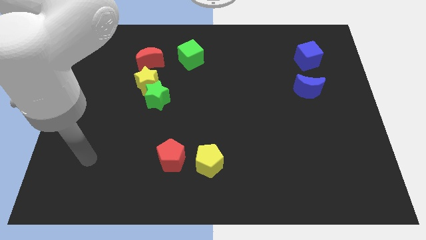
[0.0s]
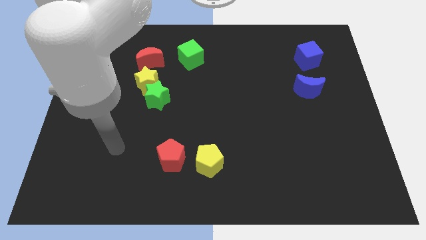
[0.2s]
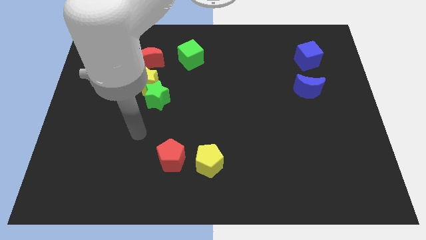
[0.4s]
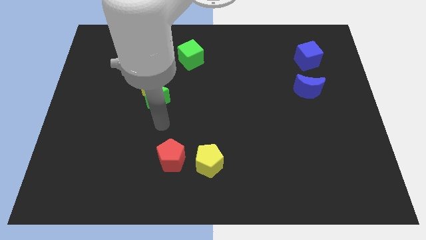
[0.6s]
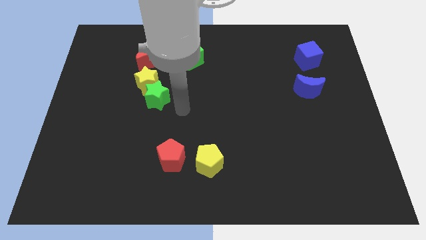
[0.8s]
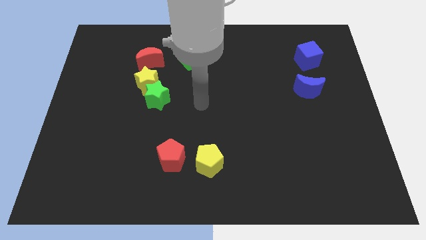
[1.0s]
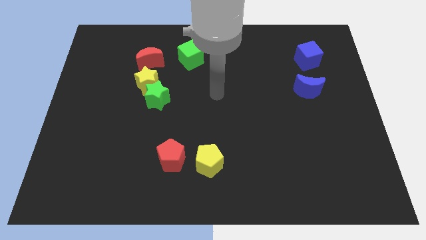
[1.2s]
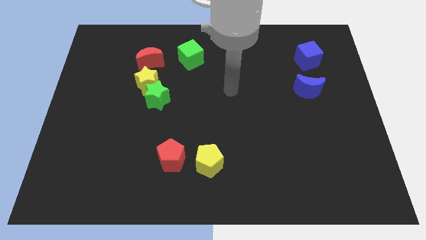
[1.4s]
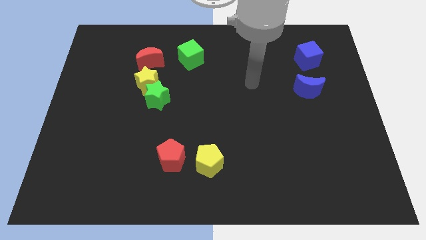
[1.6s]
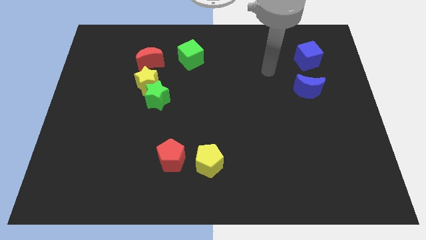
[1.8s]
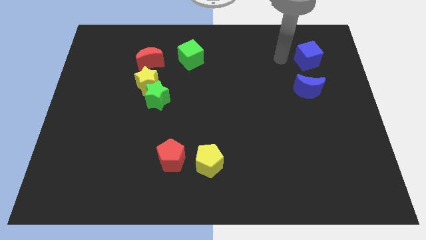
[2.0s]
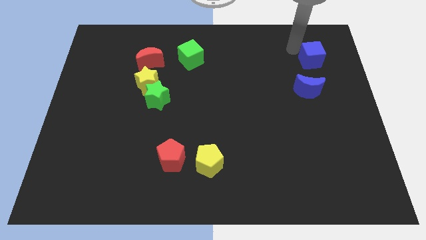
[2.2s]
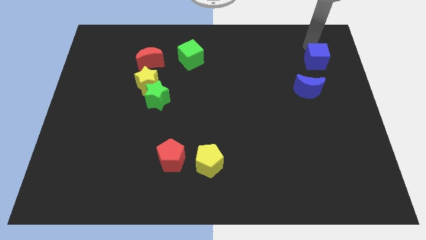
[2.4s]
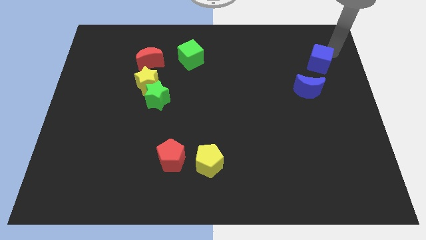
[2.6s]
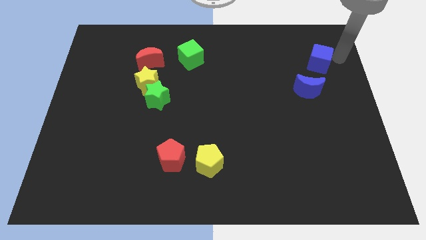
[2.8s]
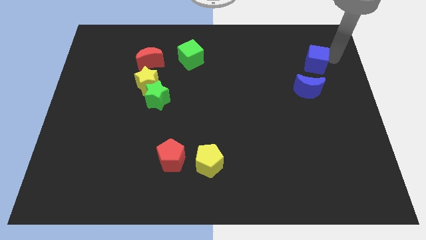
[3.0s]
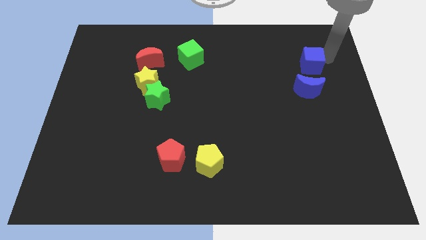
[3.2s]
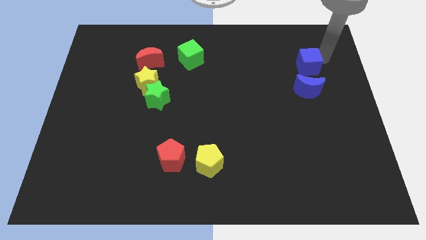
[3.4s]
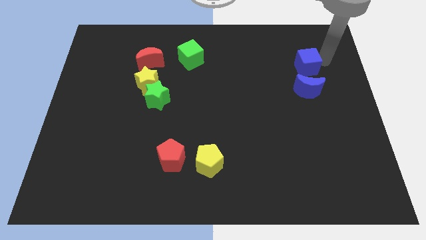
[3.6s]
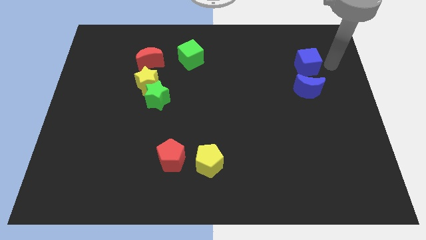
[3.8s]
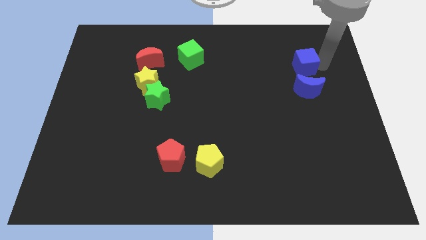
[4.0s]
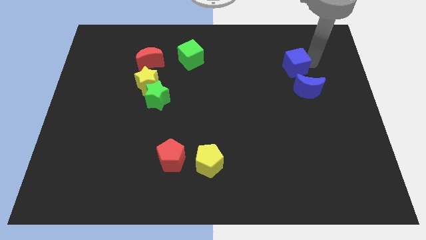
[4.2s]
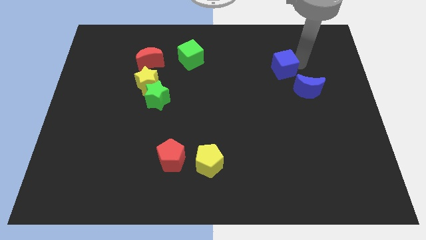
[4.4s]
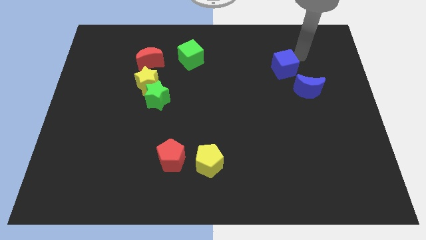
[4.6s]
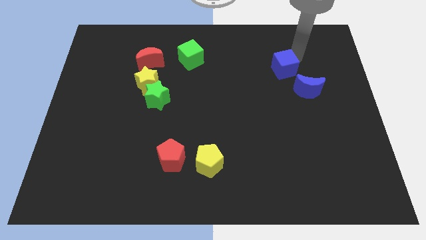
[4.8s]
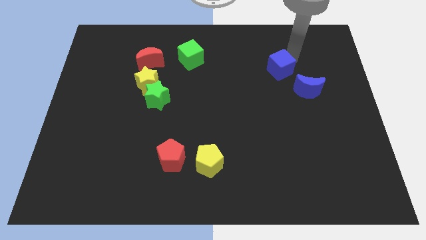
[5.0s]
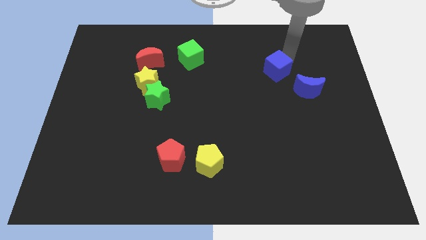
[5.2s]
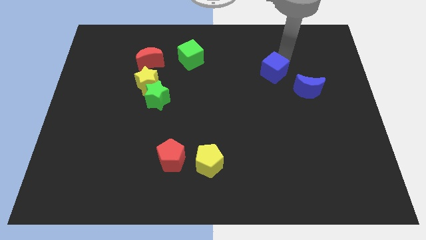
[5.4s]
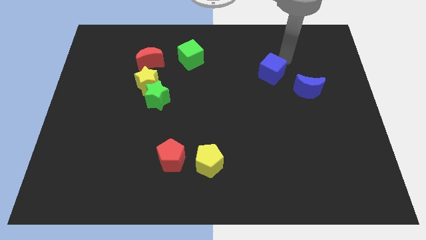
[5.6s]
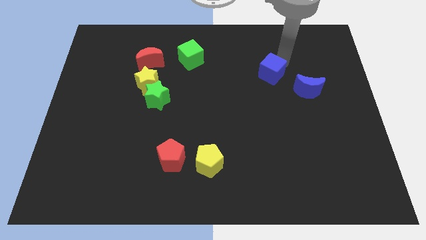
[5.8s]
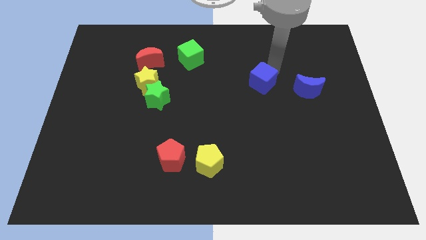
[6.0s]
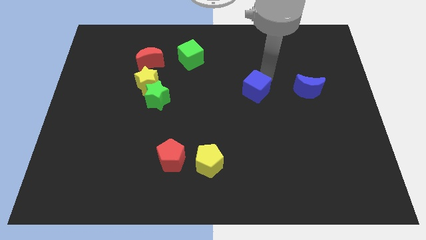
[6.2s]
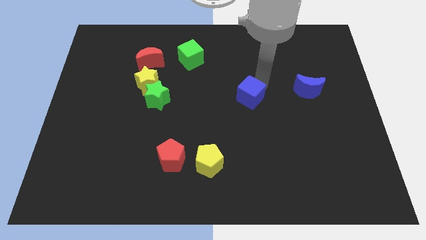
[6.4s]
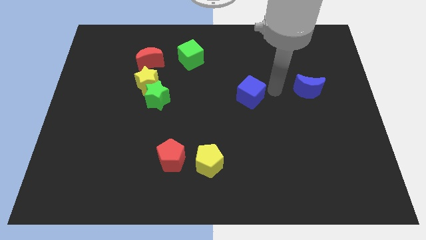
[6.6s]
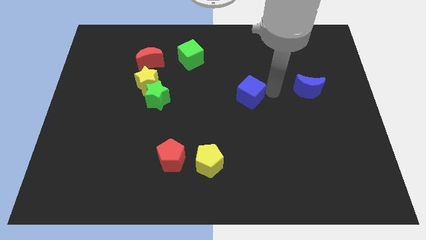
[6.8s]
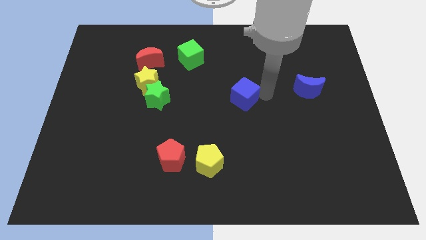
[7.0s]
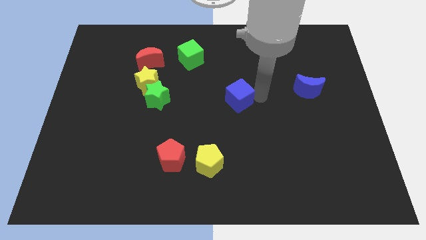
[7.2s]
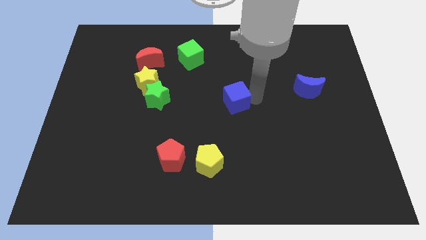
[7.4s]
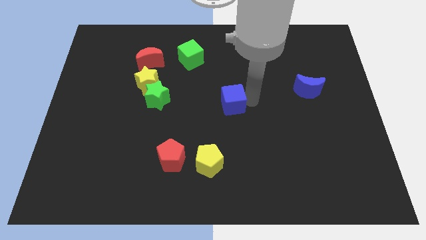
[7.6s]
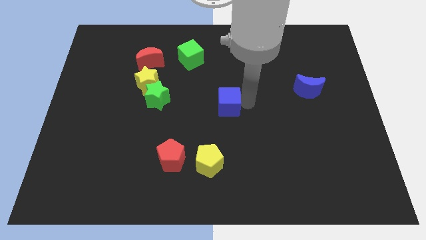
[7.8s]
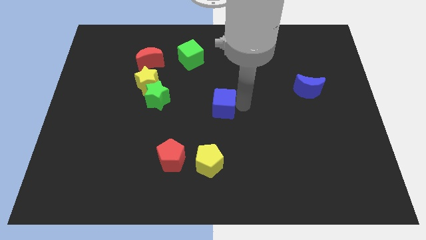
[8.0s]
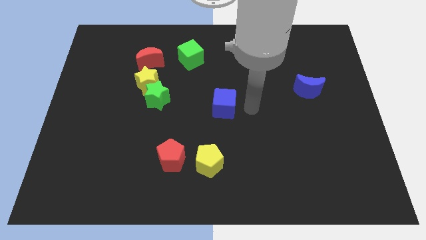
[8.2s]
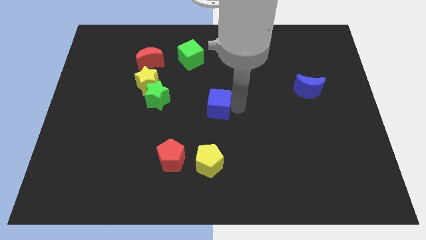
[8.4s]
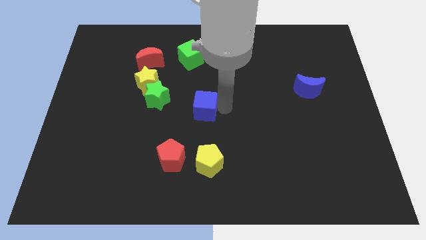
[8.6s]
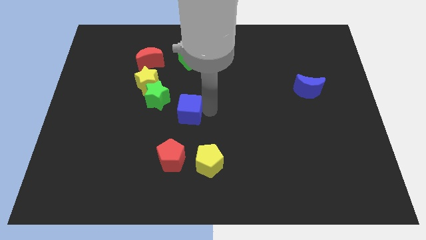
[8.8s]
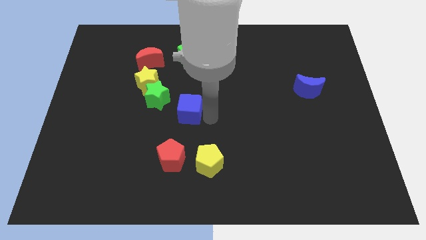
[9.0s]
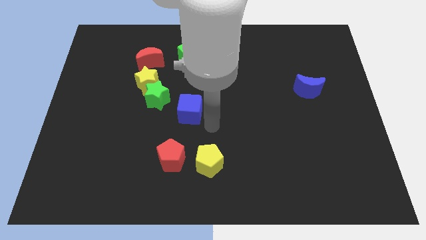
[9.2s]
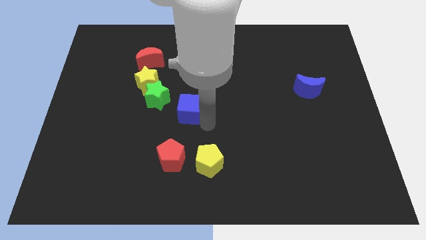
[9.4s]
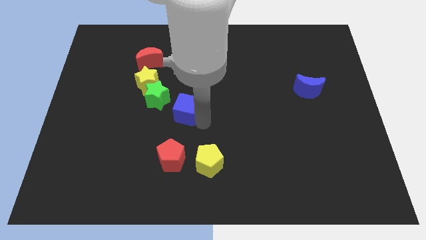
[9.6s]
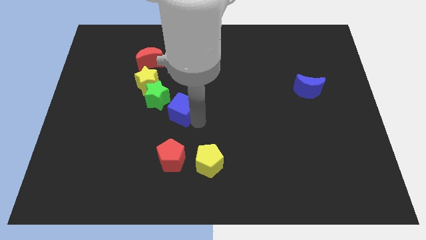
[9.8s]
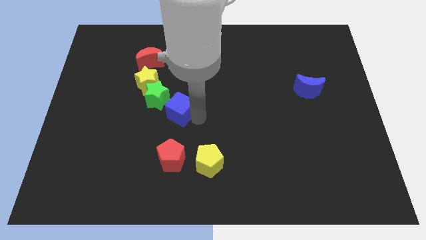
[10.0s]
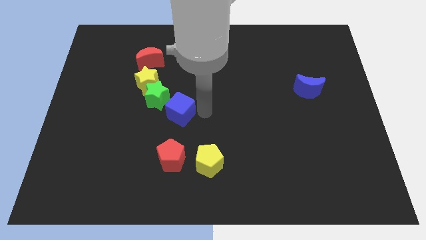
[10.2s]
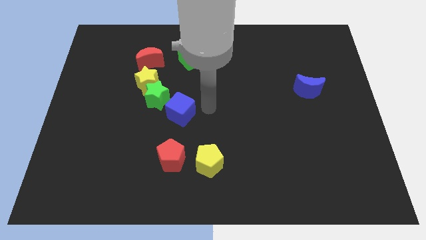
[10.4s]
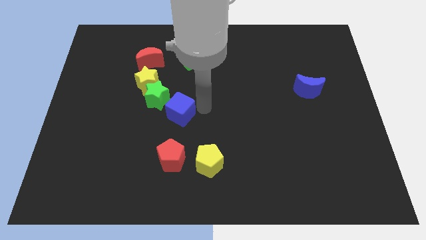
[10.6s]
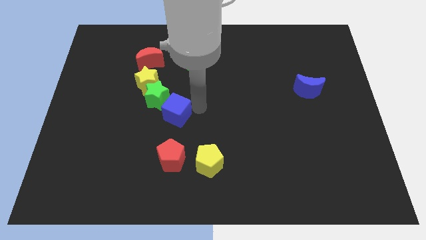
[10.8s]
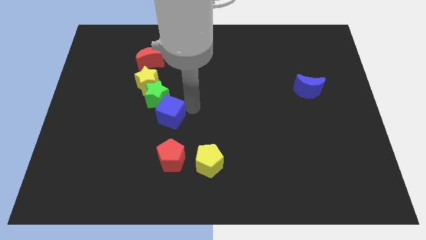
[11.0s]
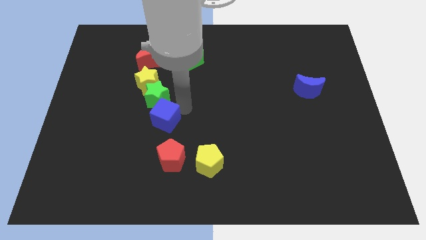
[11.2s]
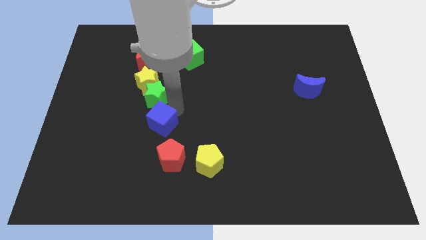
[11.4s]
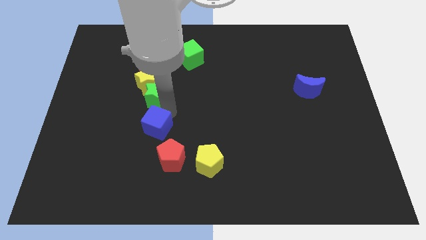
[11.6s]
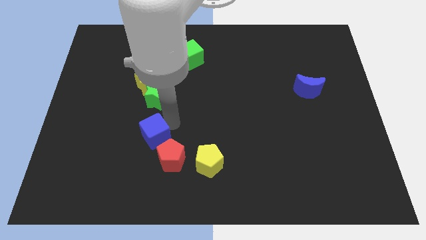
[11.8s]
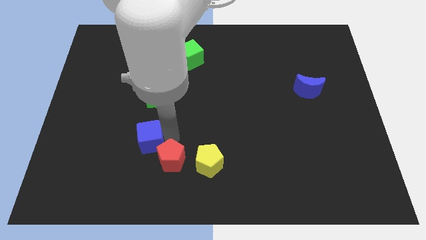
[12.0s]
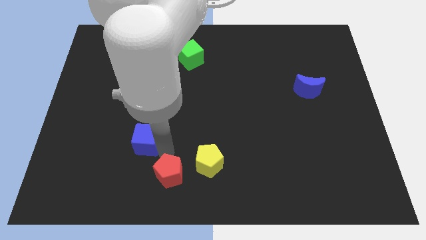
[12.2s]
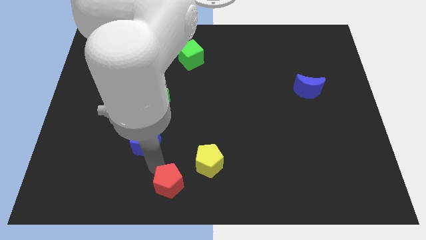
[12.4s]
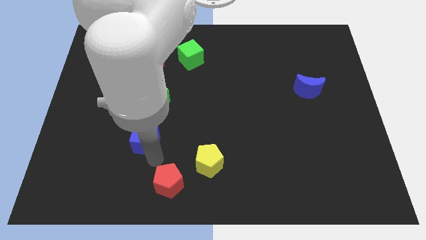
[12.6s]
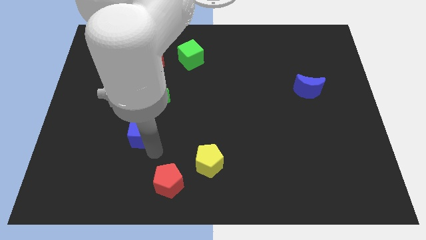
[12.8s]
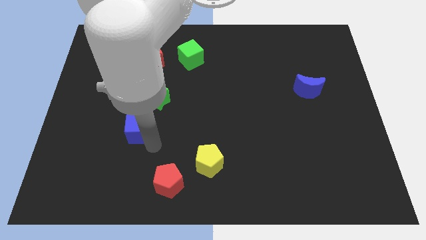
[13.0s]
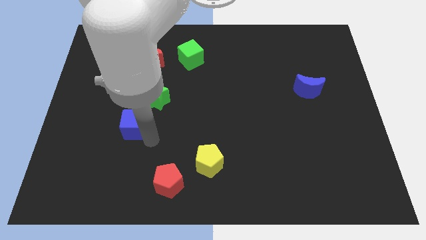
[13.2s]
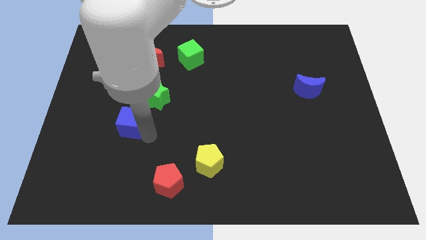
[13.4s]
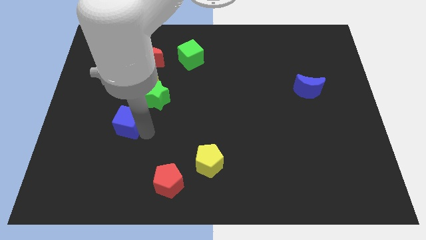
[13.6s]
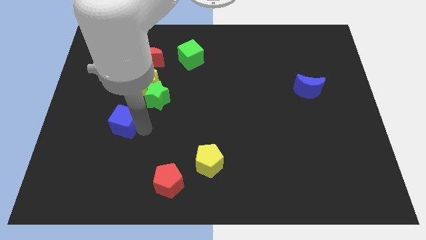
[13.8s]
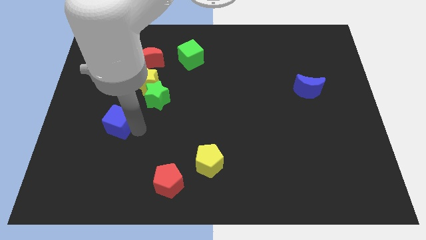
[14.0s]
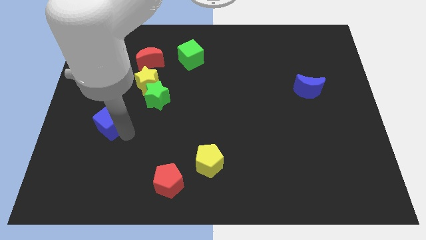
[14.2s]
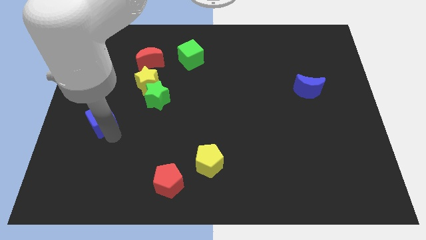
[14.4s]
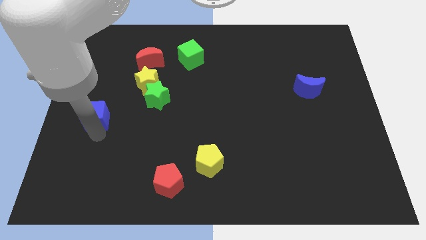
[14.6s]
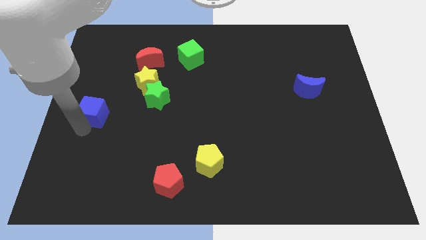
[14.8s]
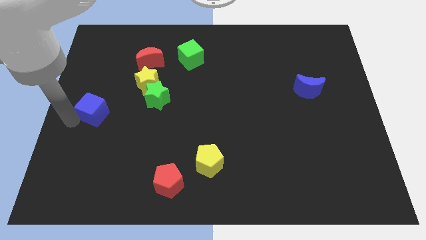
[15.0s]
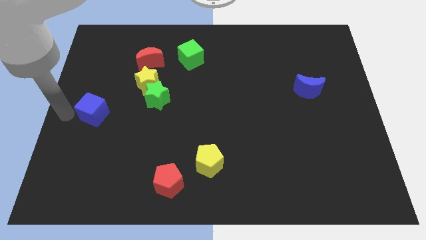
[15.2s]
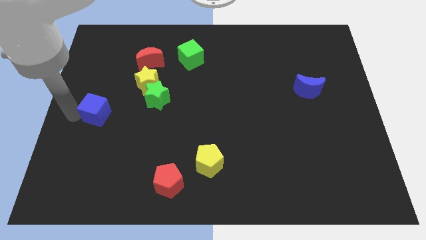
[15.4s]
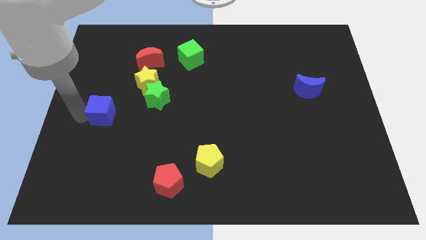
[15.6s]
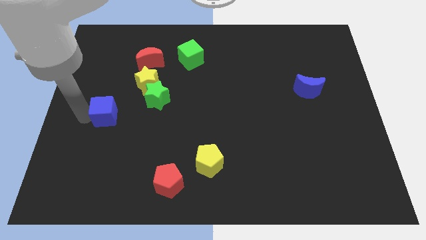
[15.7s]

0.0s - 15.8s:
move the blue cube diagonally down and to the left of the yellow star
